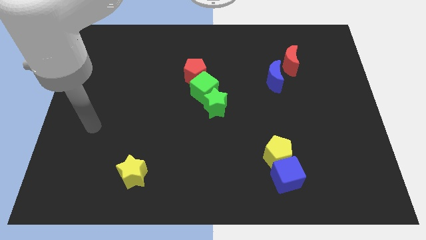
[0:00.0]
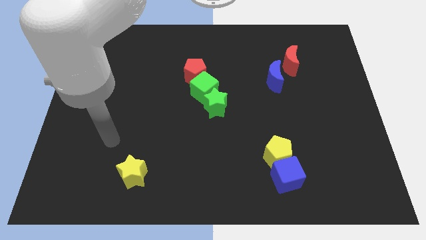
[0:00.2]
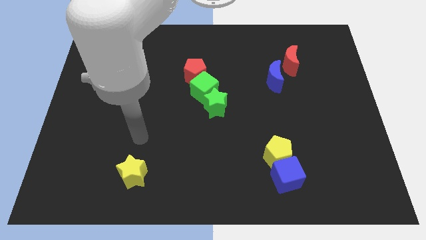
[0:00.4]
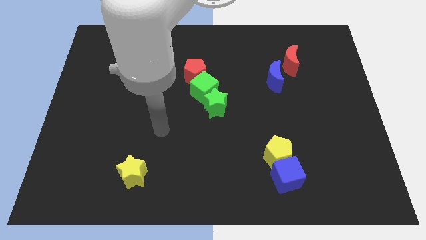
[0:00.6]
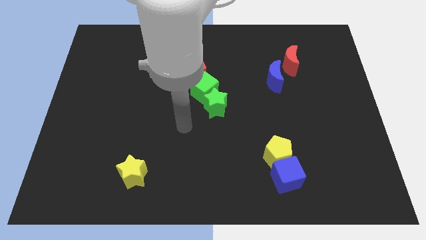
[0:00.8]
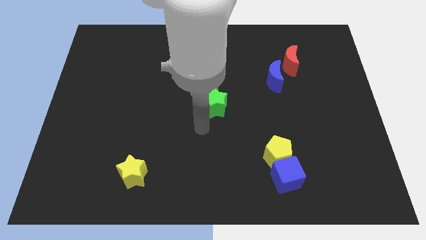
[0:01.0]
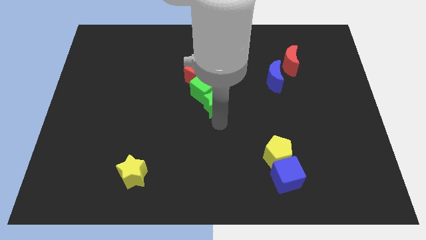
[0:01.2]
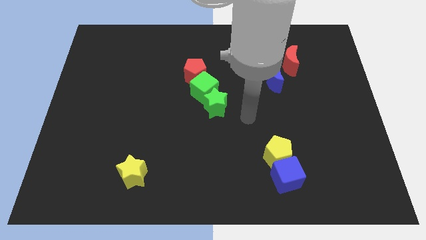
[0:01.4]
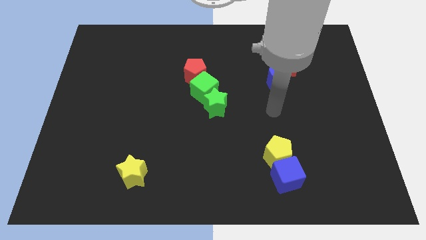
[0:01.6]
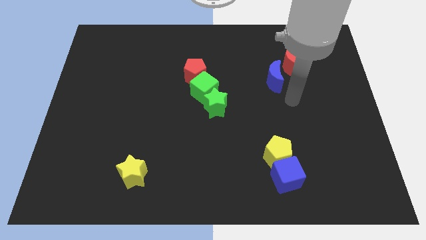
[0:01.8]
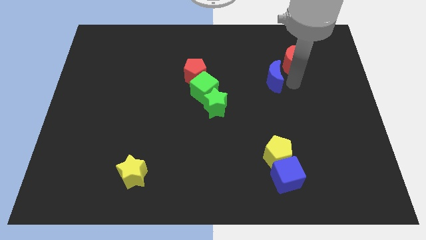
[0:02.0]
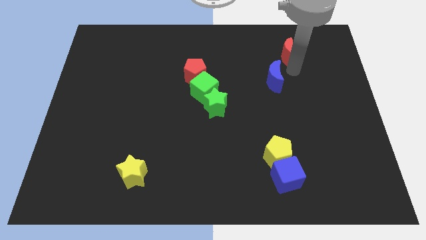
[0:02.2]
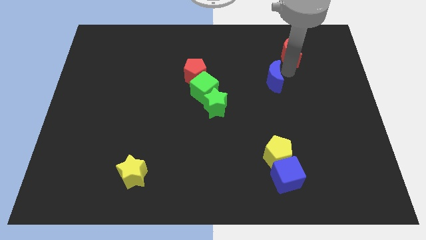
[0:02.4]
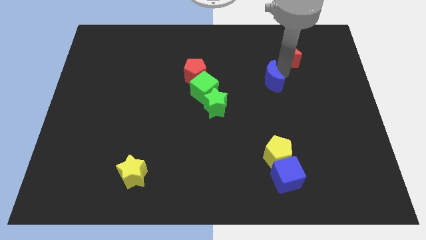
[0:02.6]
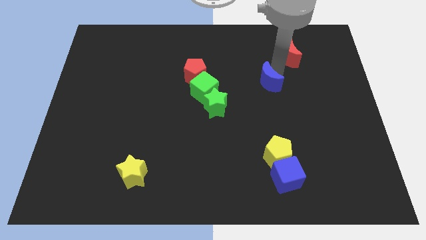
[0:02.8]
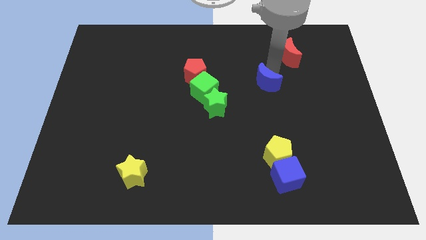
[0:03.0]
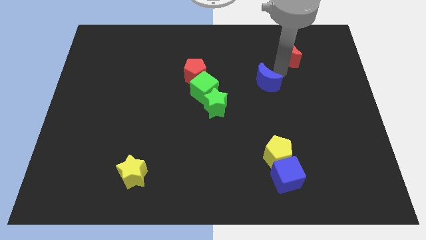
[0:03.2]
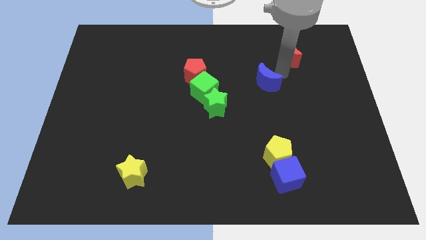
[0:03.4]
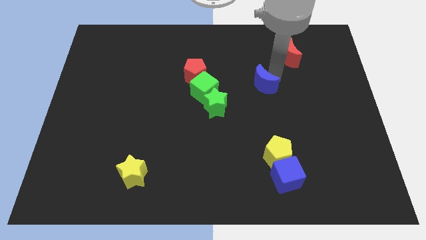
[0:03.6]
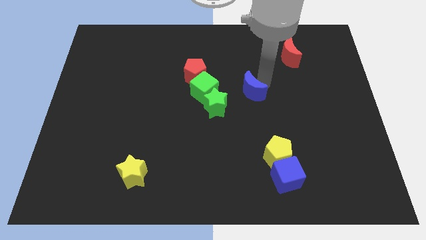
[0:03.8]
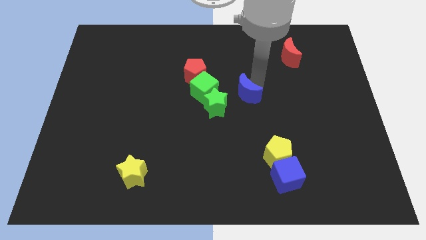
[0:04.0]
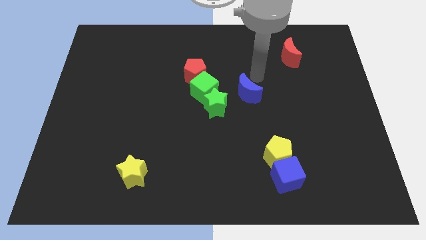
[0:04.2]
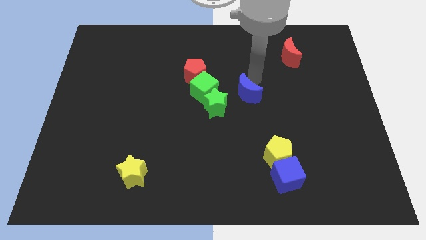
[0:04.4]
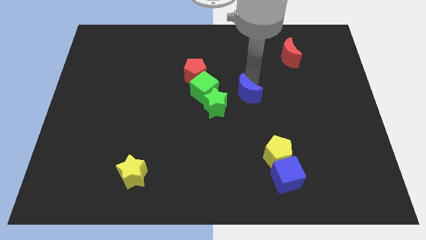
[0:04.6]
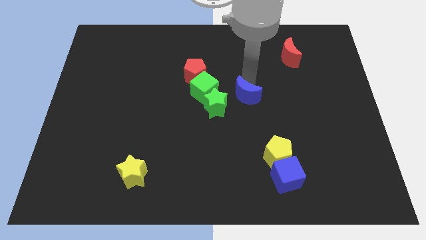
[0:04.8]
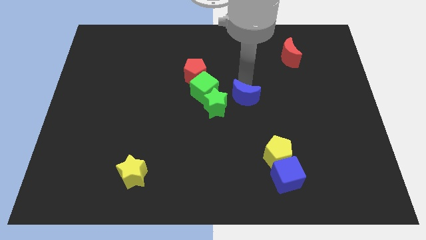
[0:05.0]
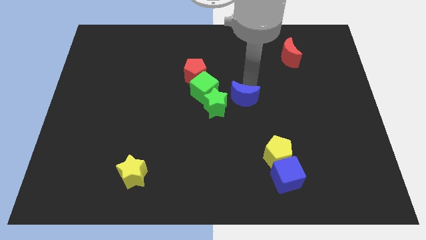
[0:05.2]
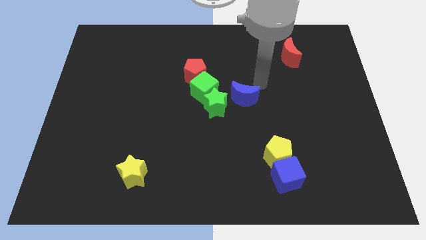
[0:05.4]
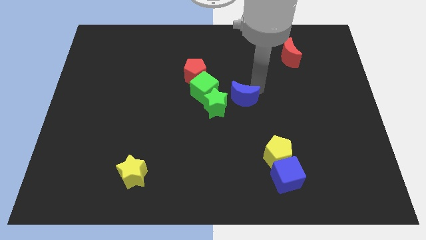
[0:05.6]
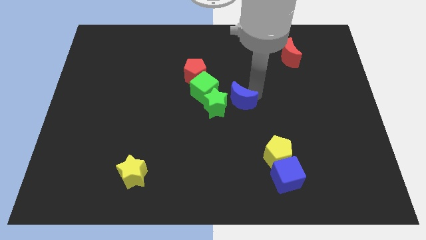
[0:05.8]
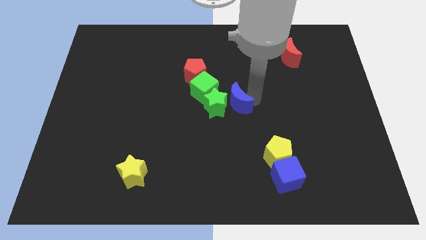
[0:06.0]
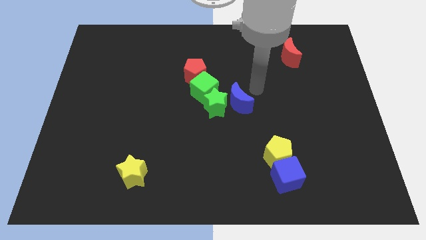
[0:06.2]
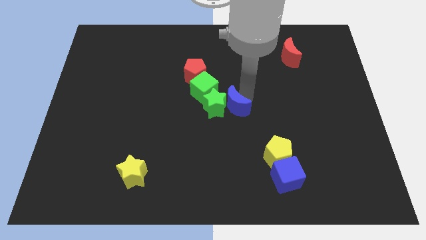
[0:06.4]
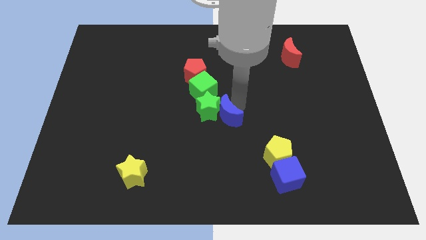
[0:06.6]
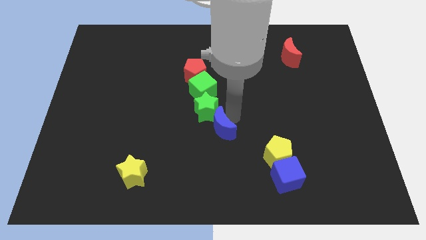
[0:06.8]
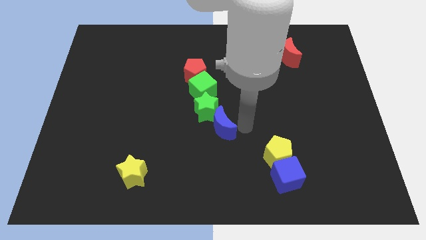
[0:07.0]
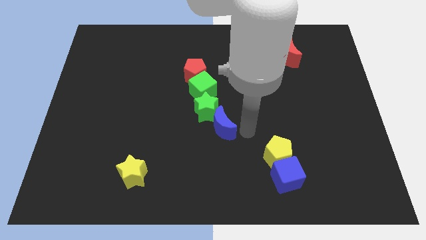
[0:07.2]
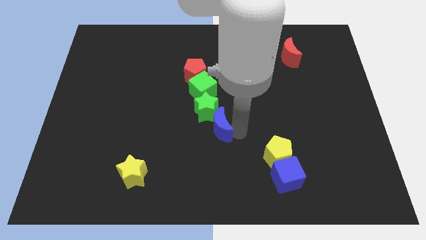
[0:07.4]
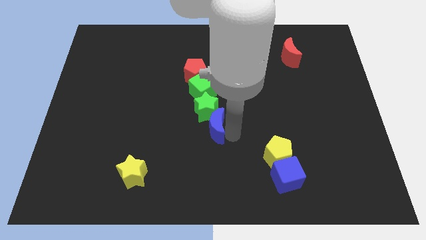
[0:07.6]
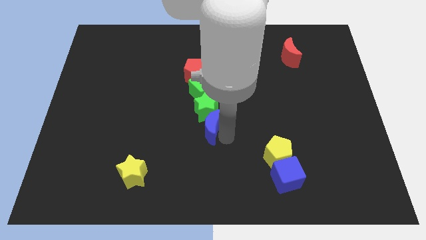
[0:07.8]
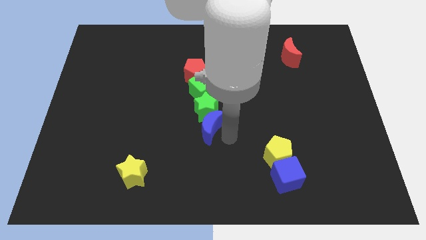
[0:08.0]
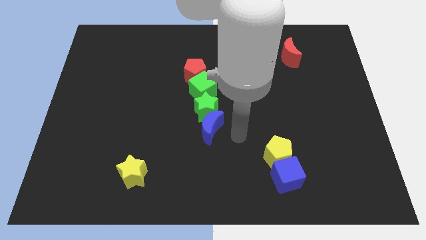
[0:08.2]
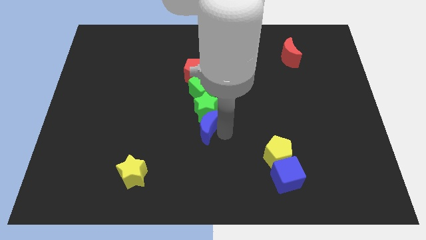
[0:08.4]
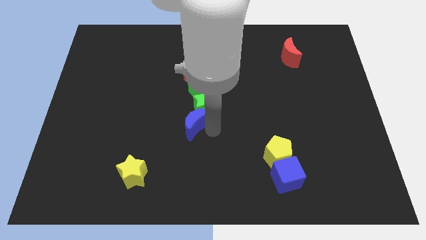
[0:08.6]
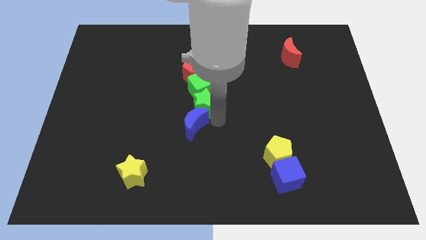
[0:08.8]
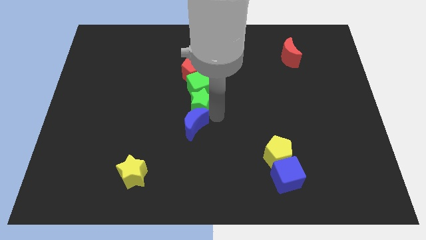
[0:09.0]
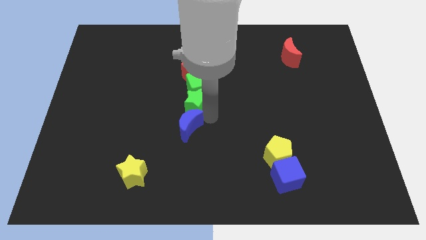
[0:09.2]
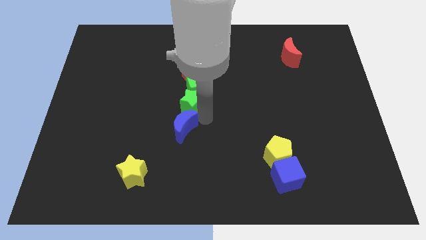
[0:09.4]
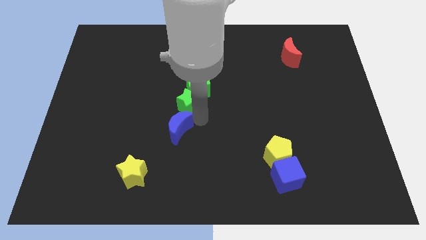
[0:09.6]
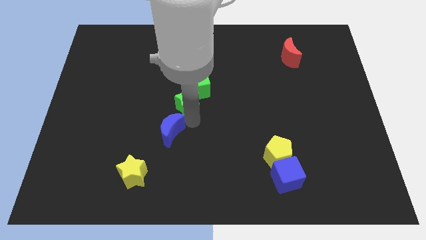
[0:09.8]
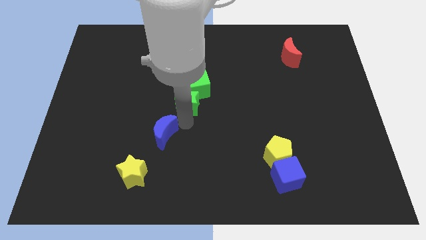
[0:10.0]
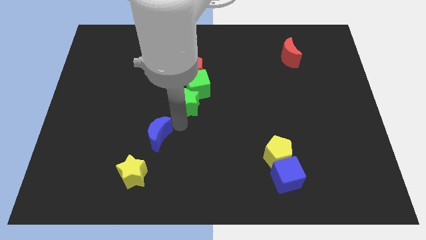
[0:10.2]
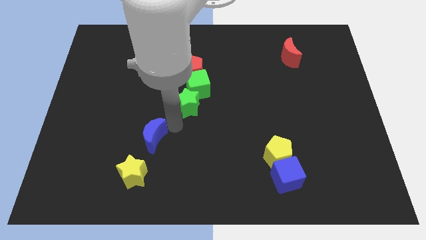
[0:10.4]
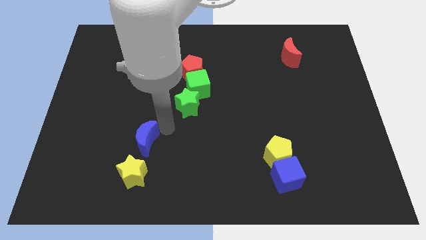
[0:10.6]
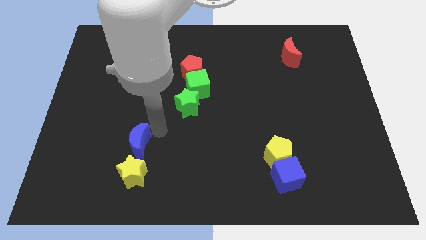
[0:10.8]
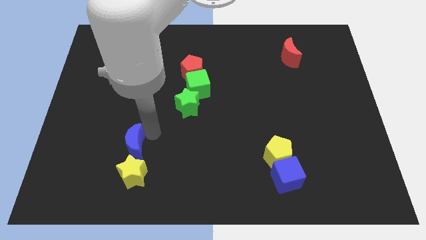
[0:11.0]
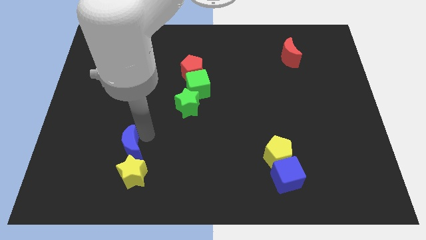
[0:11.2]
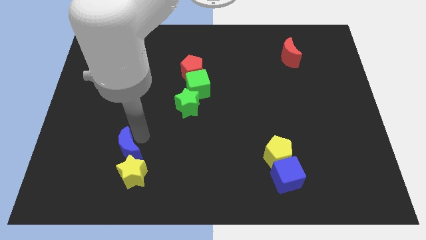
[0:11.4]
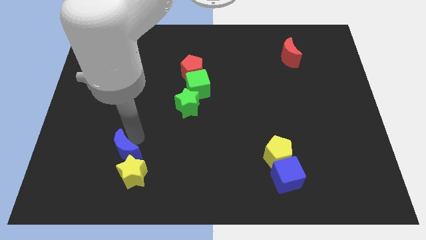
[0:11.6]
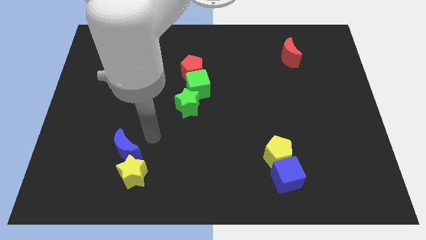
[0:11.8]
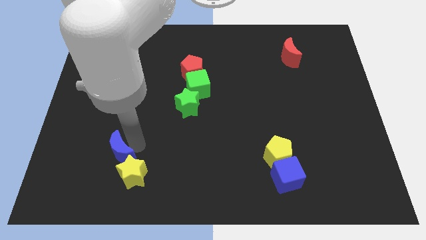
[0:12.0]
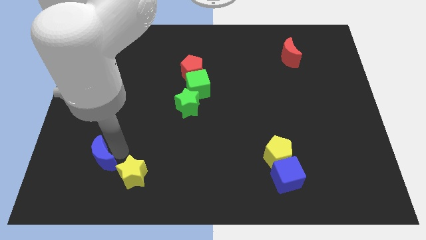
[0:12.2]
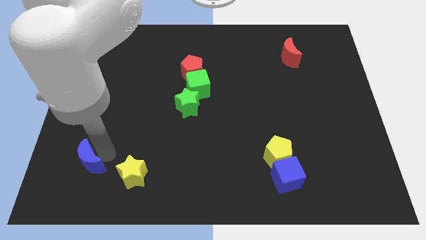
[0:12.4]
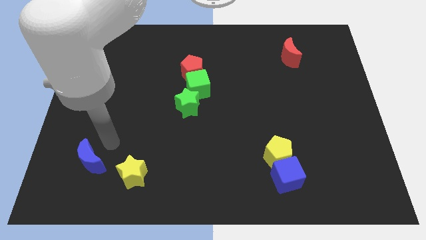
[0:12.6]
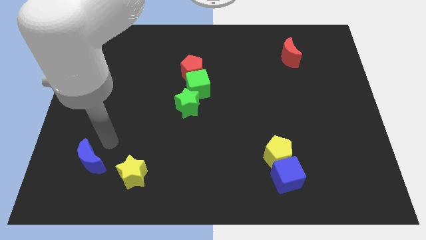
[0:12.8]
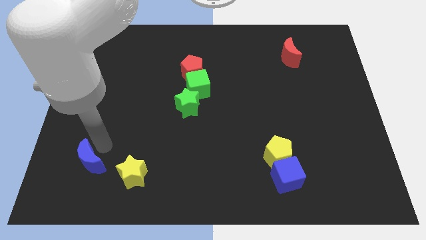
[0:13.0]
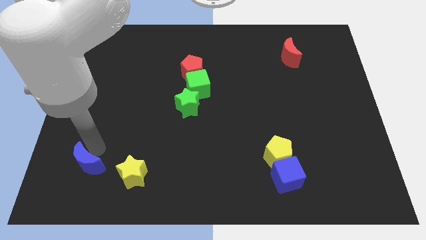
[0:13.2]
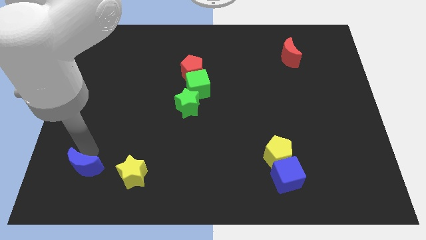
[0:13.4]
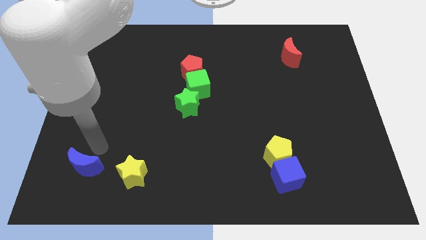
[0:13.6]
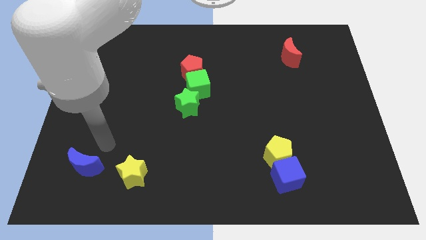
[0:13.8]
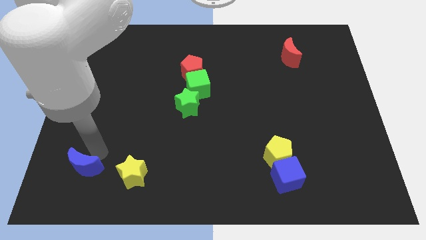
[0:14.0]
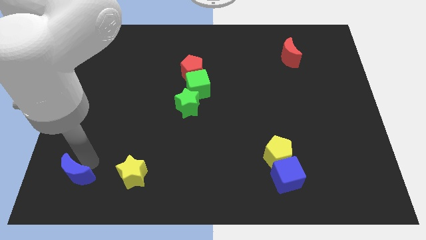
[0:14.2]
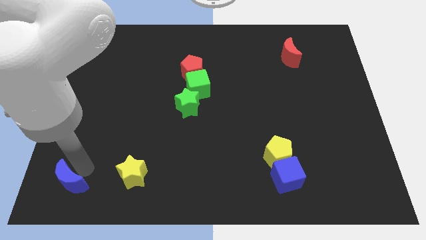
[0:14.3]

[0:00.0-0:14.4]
slide the blue moon to the bottom left
